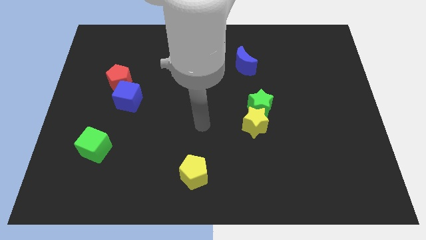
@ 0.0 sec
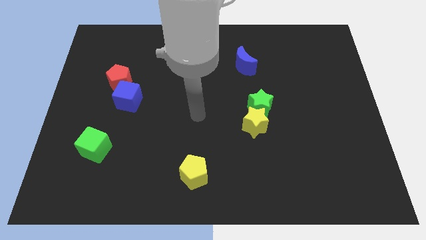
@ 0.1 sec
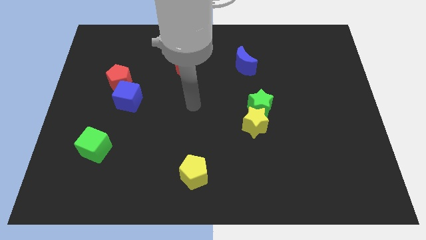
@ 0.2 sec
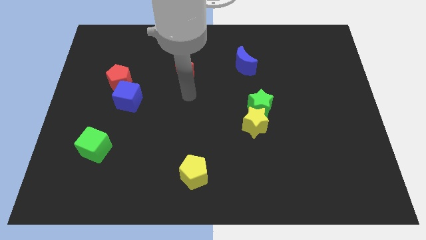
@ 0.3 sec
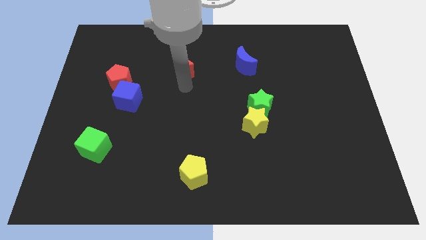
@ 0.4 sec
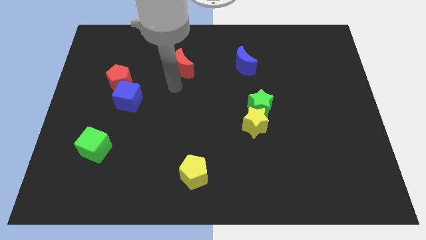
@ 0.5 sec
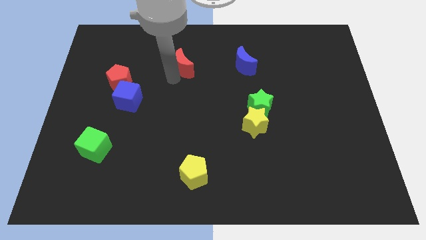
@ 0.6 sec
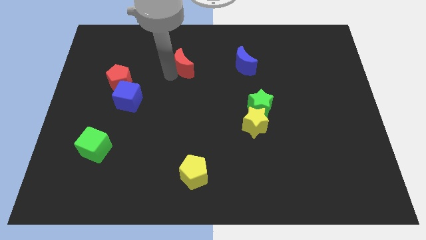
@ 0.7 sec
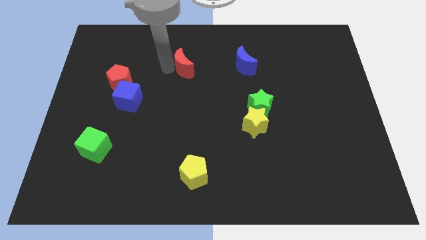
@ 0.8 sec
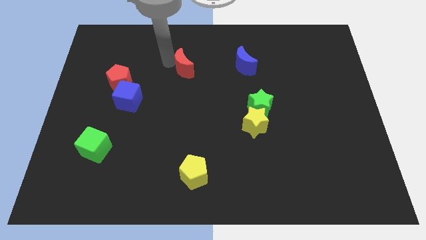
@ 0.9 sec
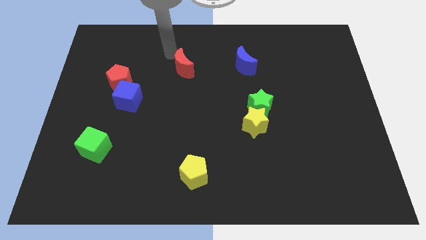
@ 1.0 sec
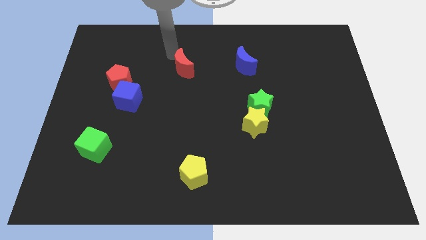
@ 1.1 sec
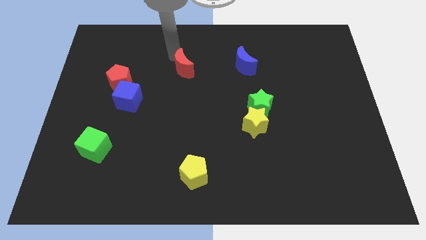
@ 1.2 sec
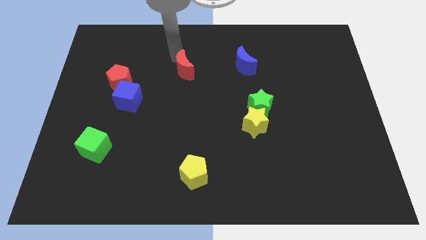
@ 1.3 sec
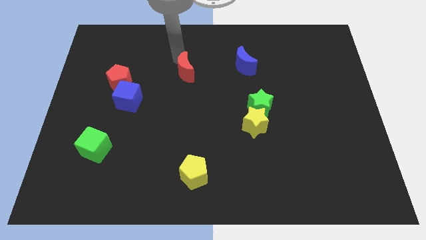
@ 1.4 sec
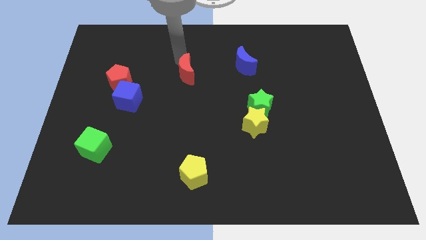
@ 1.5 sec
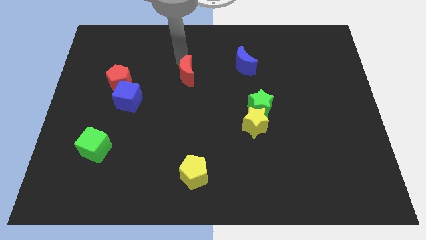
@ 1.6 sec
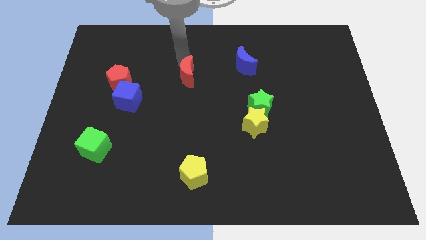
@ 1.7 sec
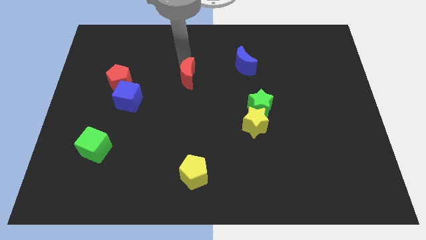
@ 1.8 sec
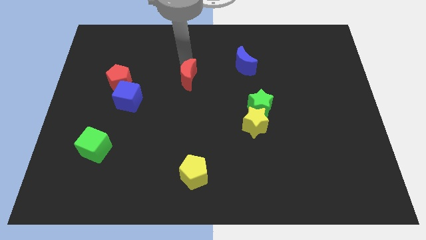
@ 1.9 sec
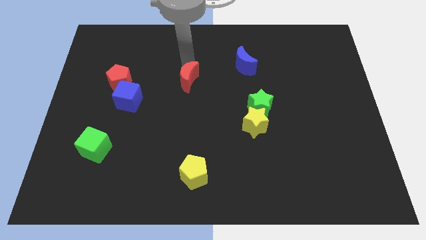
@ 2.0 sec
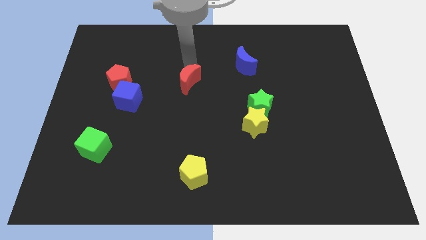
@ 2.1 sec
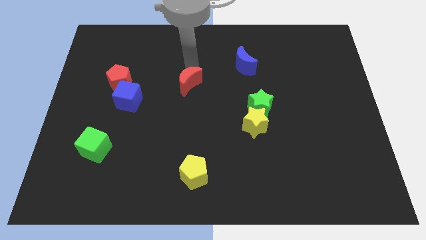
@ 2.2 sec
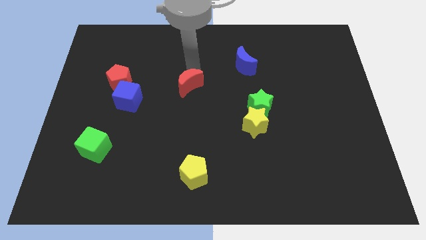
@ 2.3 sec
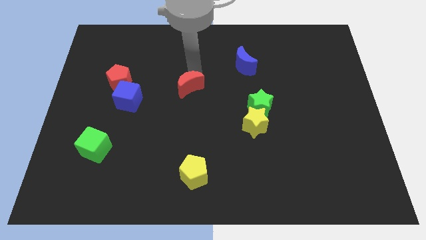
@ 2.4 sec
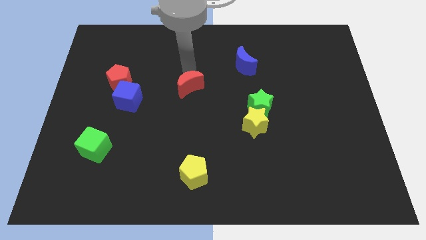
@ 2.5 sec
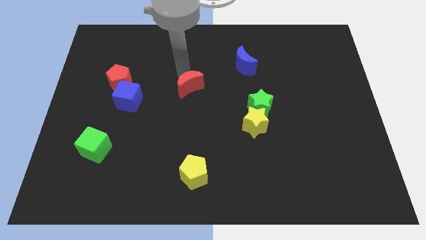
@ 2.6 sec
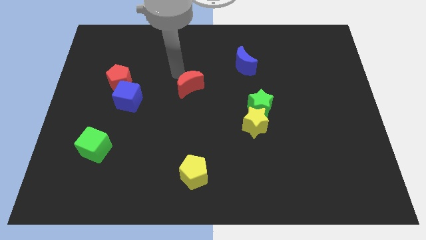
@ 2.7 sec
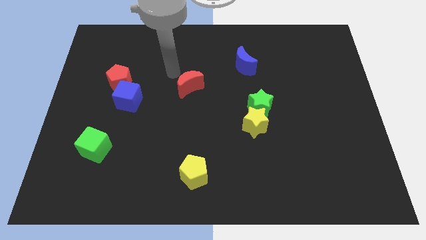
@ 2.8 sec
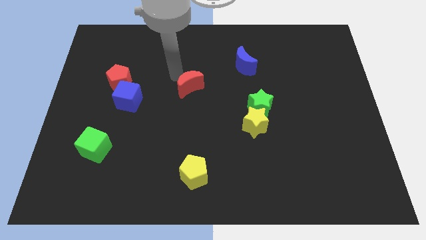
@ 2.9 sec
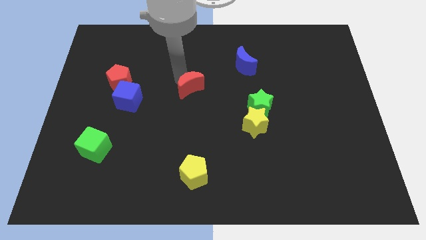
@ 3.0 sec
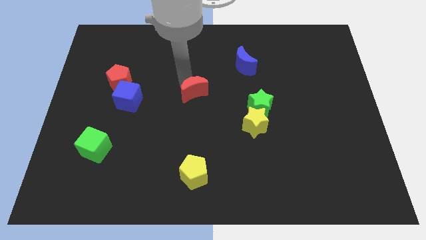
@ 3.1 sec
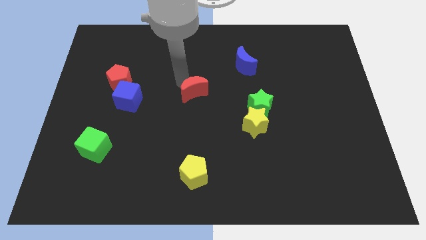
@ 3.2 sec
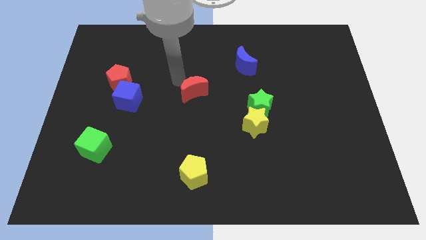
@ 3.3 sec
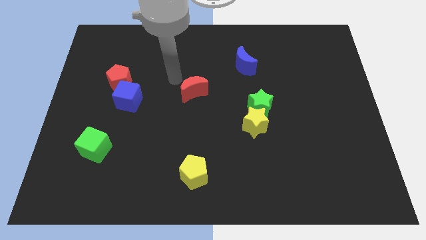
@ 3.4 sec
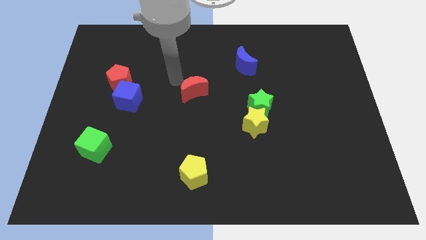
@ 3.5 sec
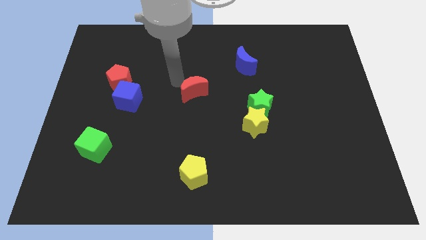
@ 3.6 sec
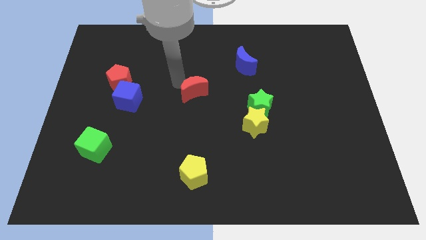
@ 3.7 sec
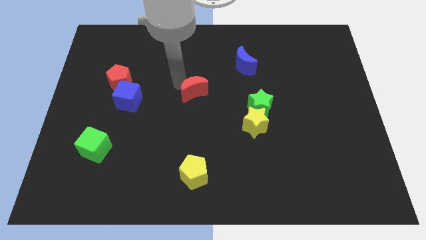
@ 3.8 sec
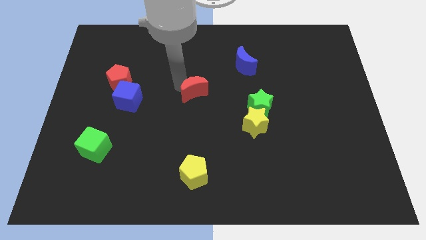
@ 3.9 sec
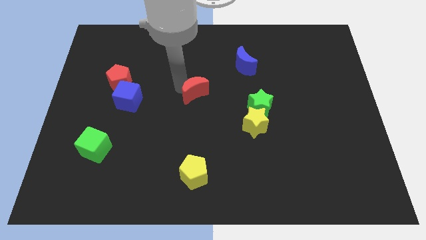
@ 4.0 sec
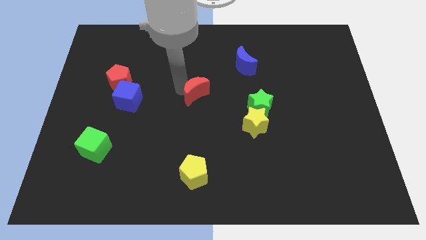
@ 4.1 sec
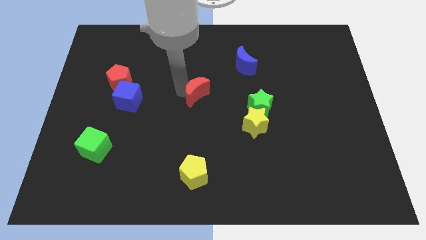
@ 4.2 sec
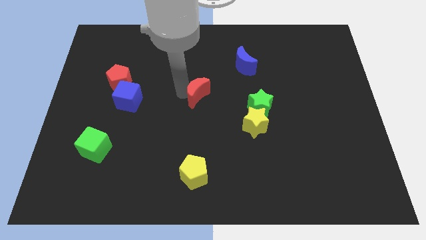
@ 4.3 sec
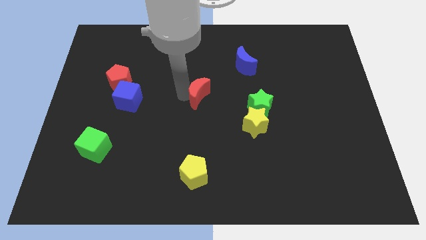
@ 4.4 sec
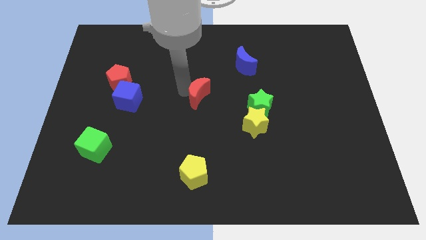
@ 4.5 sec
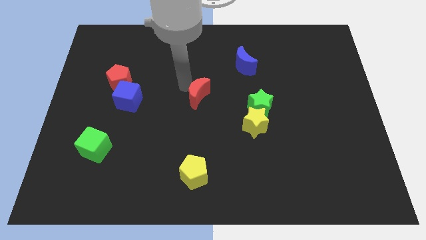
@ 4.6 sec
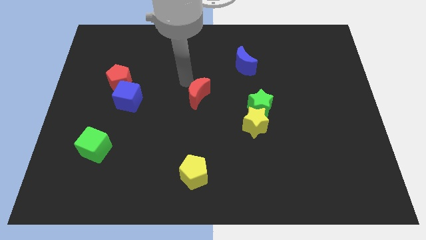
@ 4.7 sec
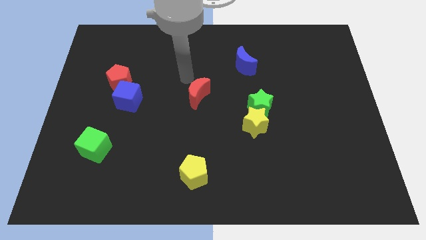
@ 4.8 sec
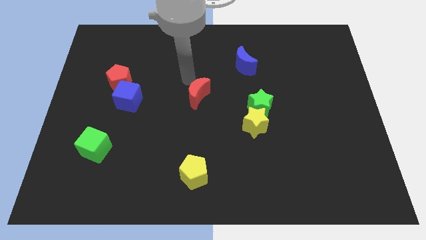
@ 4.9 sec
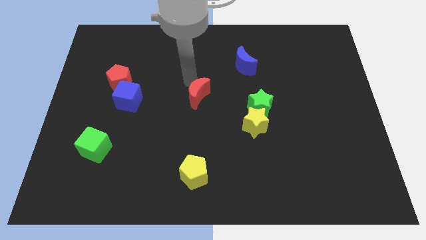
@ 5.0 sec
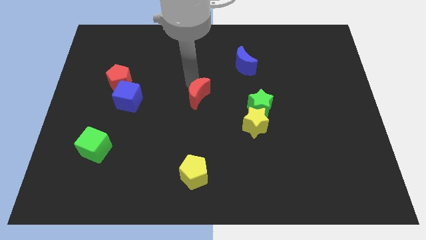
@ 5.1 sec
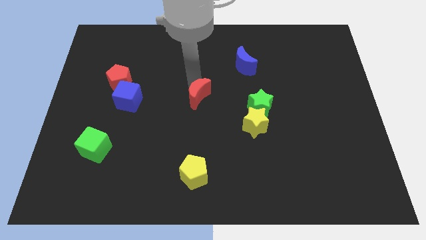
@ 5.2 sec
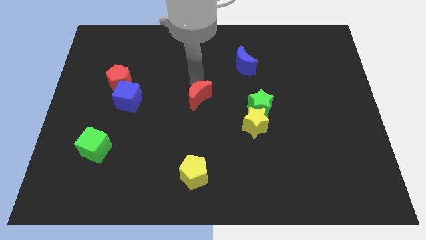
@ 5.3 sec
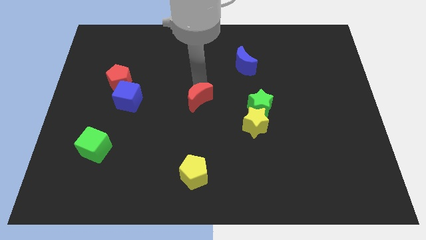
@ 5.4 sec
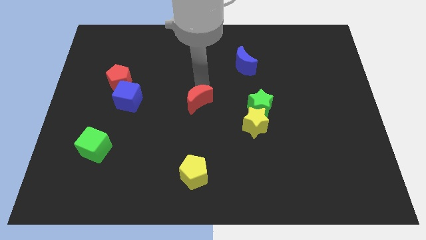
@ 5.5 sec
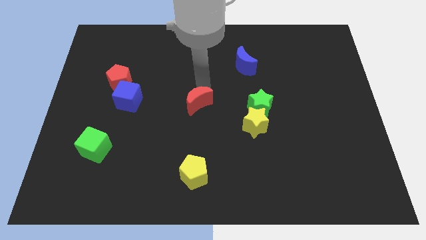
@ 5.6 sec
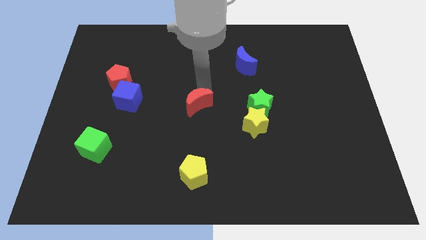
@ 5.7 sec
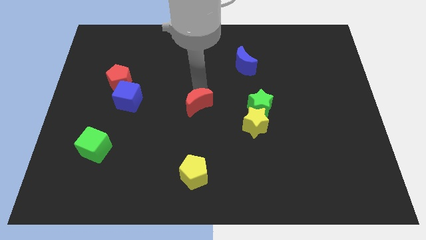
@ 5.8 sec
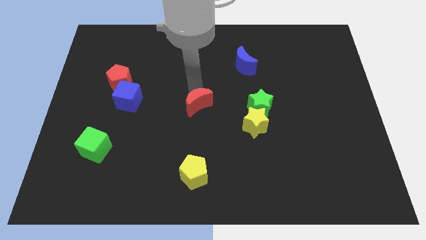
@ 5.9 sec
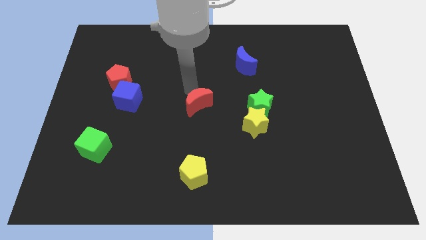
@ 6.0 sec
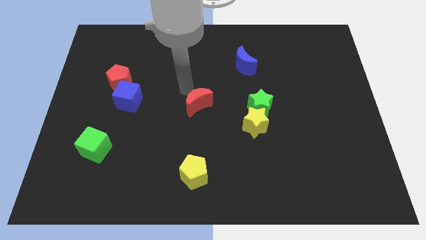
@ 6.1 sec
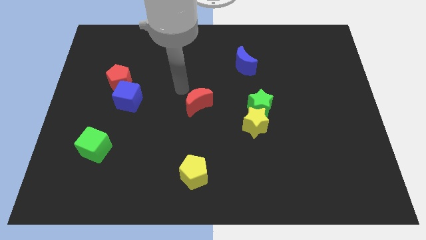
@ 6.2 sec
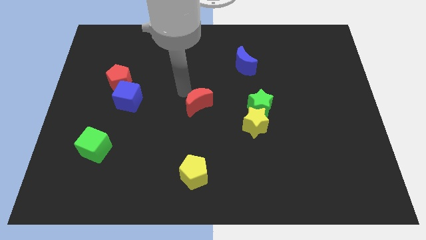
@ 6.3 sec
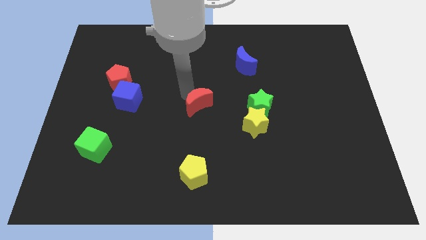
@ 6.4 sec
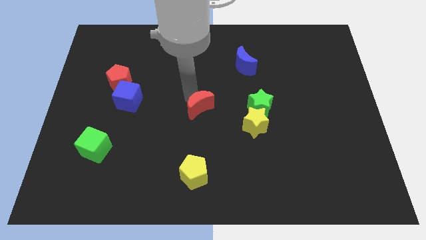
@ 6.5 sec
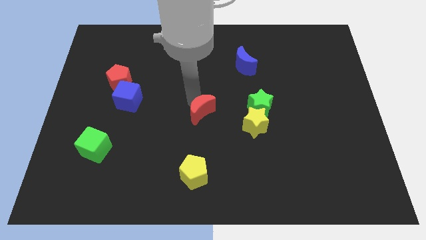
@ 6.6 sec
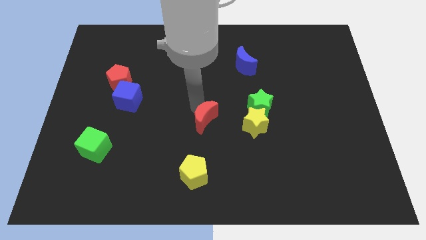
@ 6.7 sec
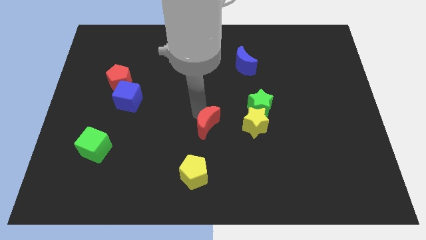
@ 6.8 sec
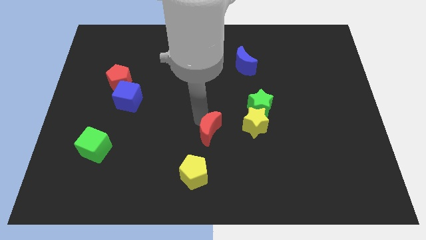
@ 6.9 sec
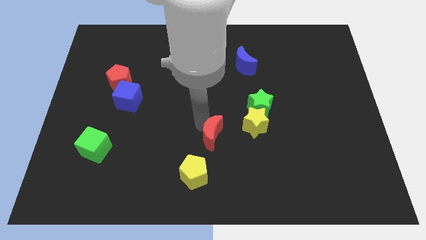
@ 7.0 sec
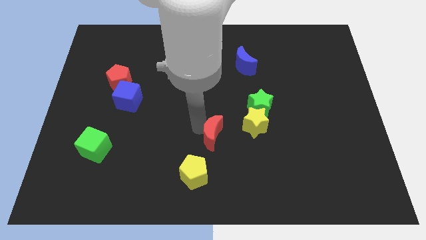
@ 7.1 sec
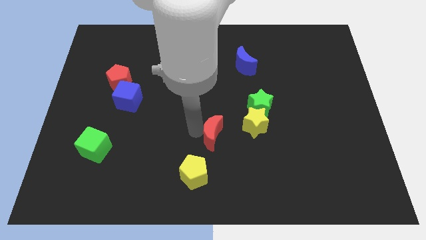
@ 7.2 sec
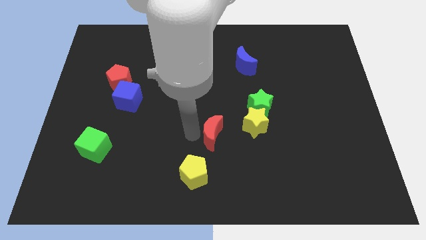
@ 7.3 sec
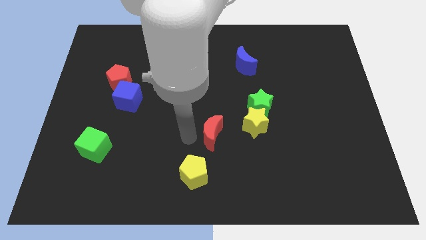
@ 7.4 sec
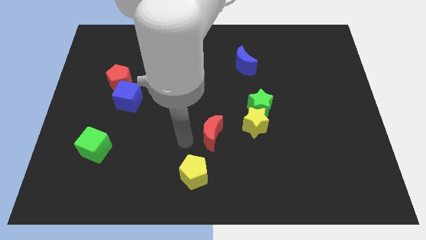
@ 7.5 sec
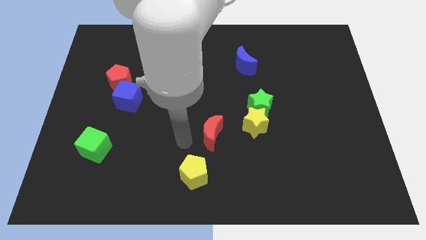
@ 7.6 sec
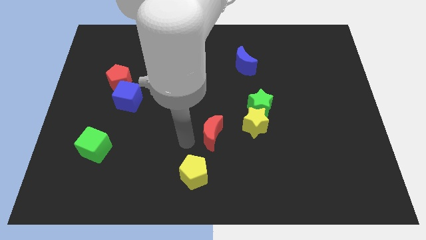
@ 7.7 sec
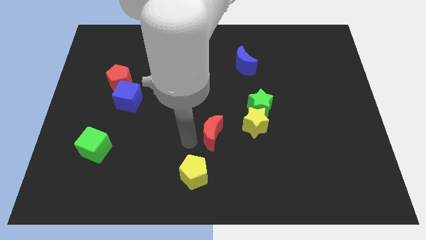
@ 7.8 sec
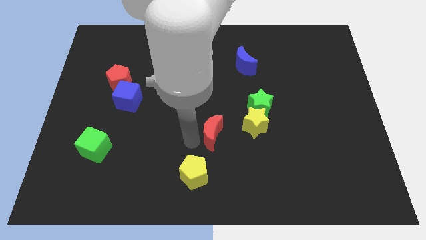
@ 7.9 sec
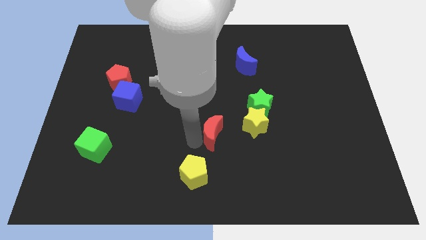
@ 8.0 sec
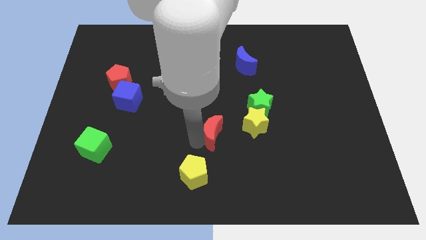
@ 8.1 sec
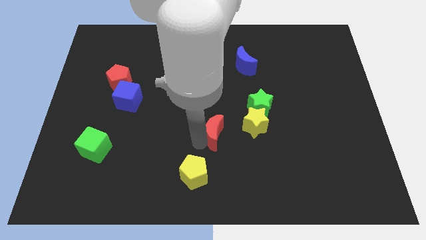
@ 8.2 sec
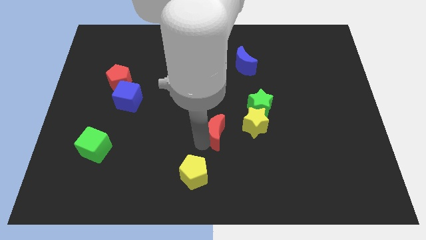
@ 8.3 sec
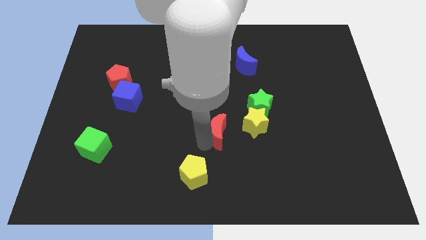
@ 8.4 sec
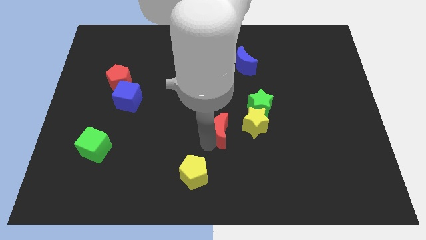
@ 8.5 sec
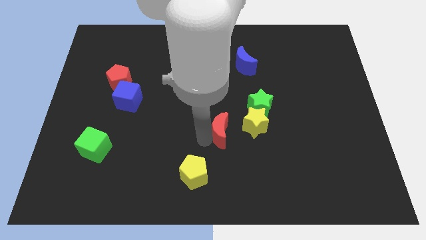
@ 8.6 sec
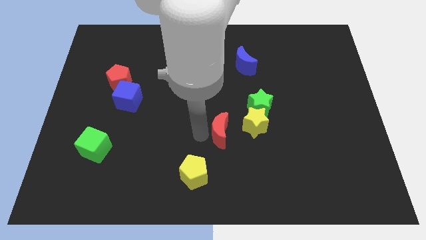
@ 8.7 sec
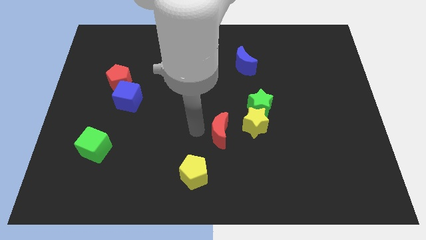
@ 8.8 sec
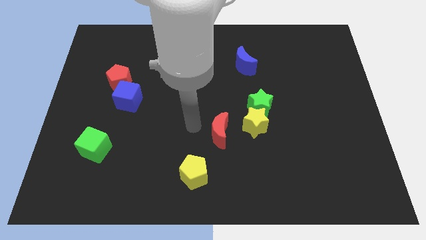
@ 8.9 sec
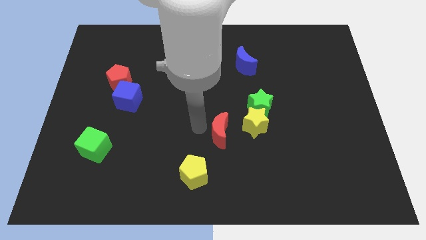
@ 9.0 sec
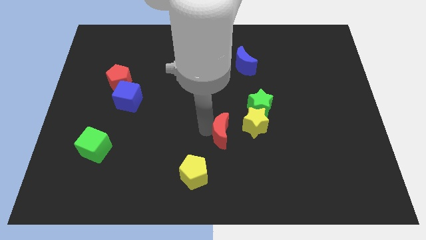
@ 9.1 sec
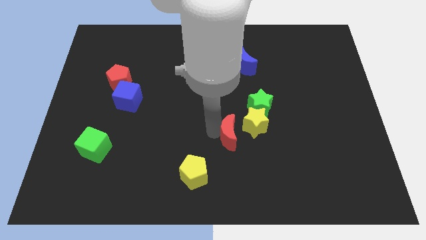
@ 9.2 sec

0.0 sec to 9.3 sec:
slide the red moon down and right
